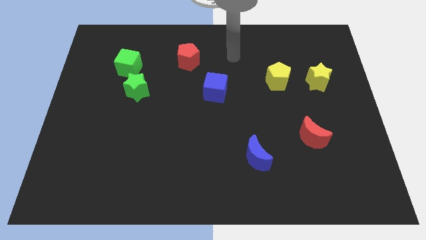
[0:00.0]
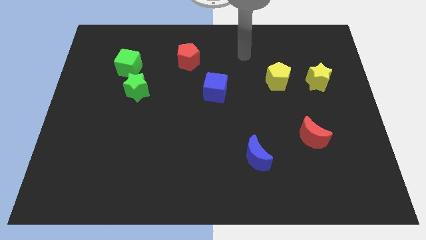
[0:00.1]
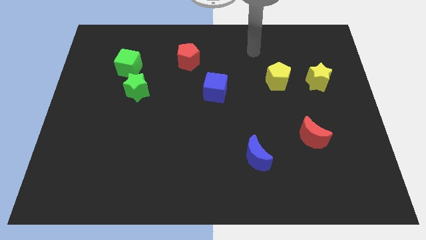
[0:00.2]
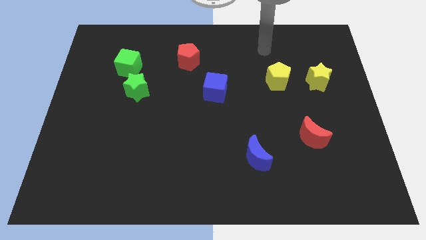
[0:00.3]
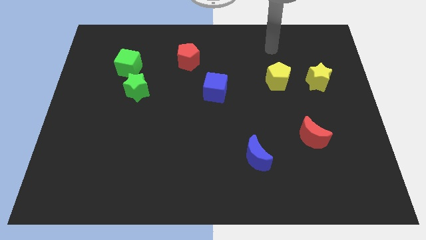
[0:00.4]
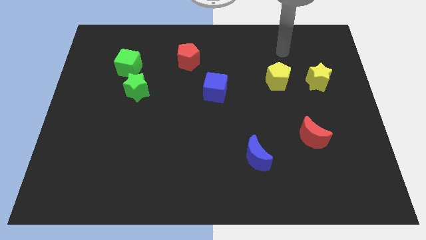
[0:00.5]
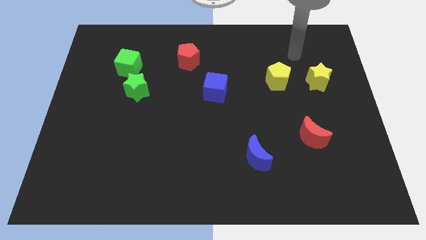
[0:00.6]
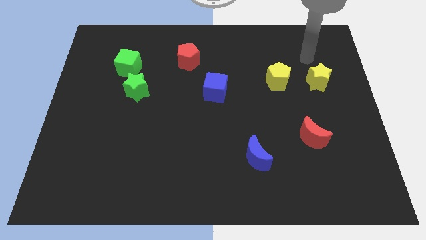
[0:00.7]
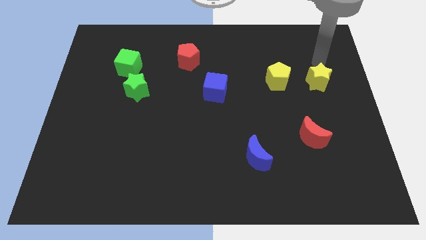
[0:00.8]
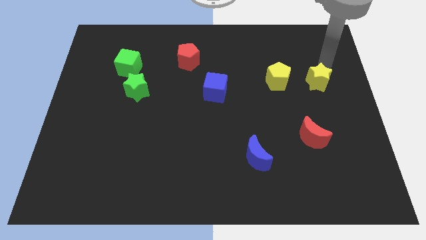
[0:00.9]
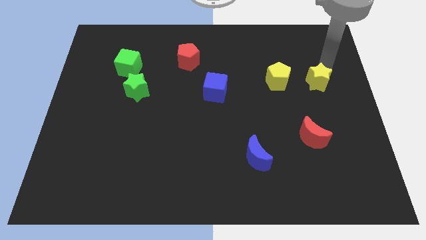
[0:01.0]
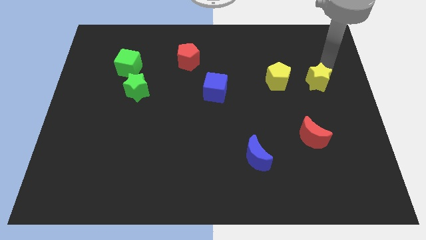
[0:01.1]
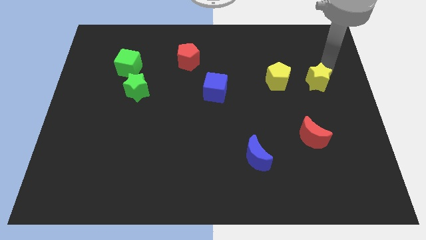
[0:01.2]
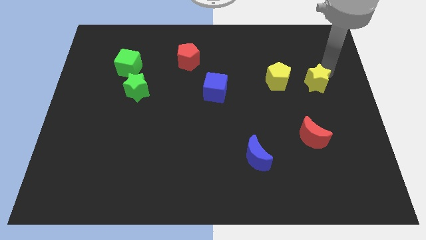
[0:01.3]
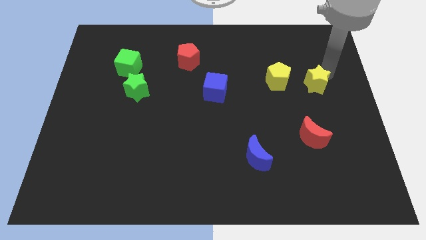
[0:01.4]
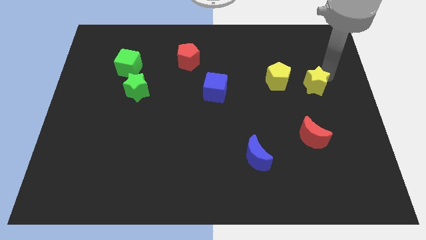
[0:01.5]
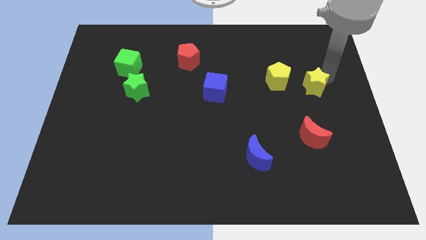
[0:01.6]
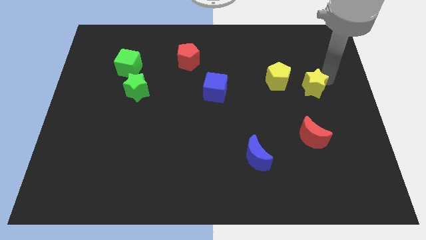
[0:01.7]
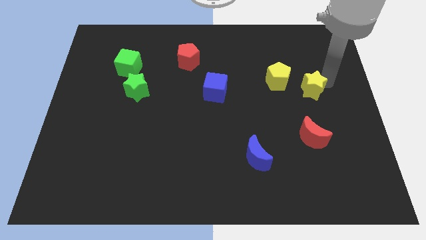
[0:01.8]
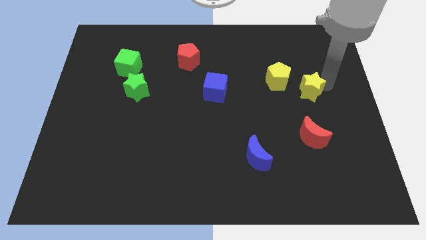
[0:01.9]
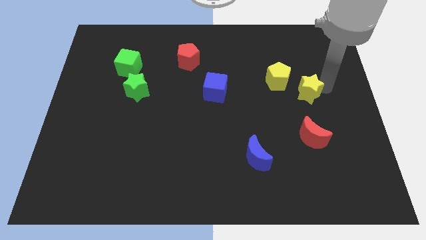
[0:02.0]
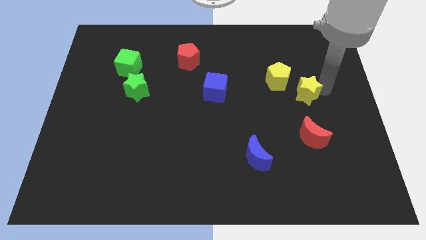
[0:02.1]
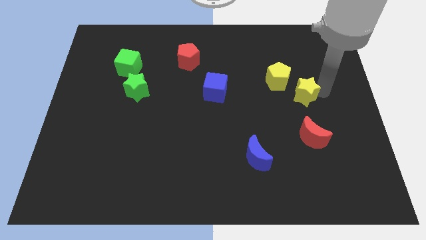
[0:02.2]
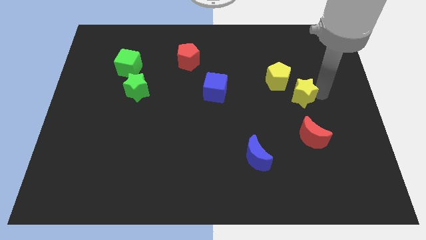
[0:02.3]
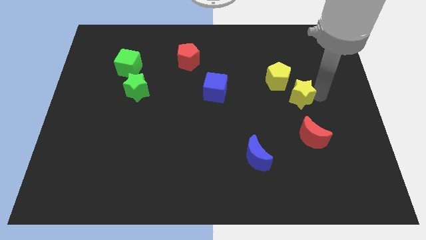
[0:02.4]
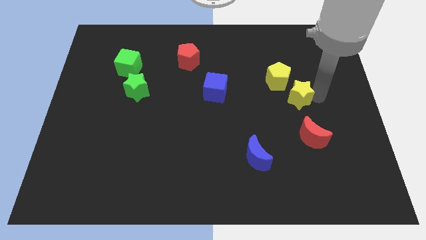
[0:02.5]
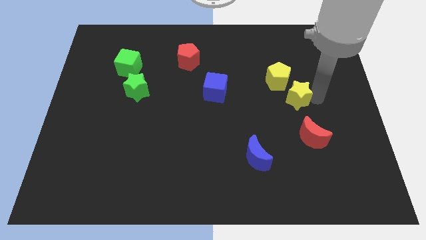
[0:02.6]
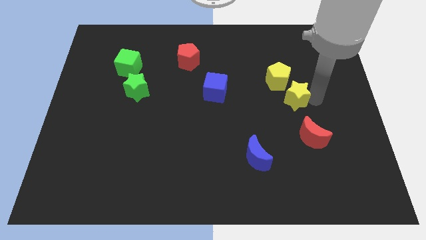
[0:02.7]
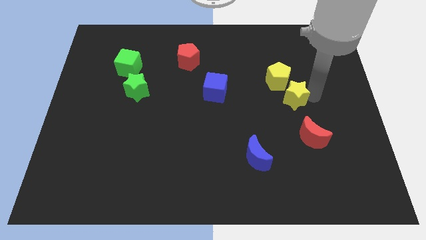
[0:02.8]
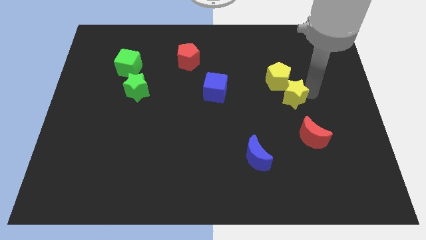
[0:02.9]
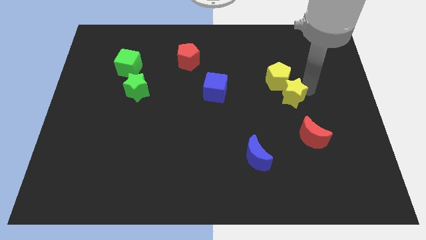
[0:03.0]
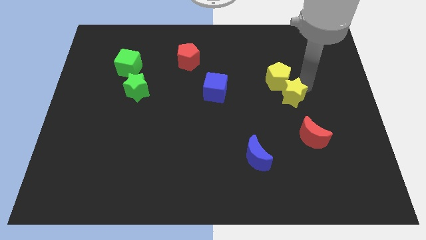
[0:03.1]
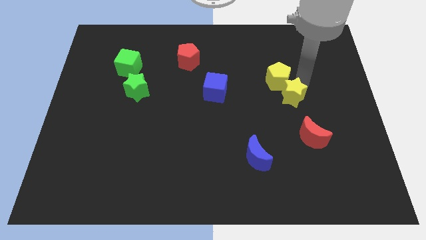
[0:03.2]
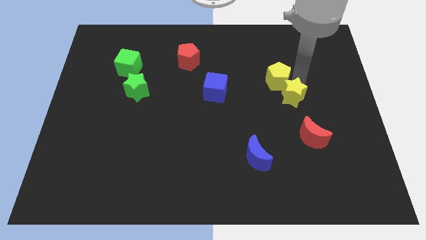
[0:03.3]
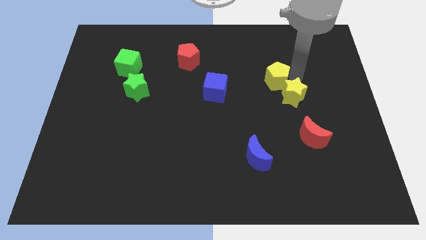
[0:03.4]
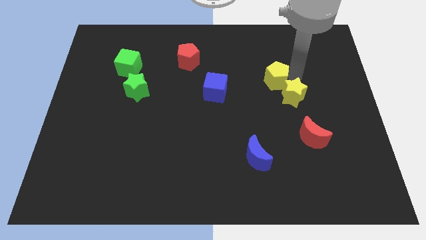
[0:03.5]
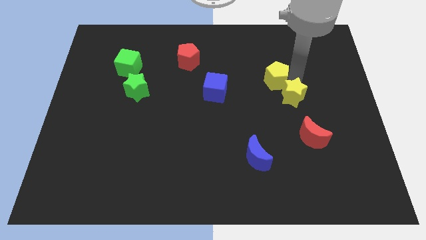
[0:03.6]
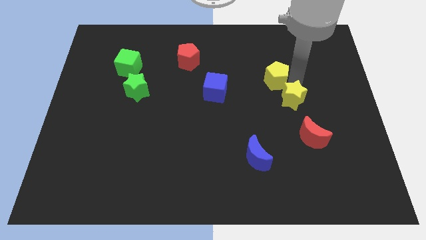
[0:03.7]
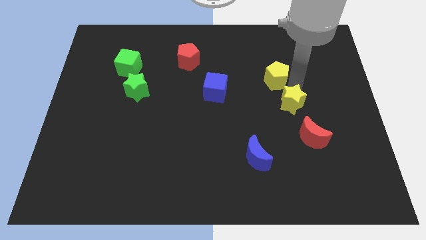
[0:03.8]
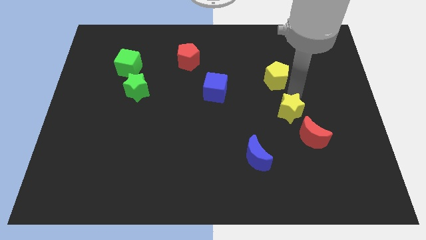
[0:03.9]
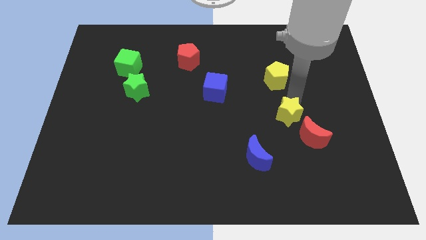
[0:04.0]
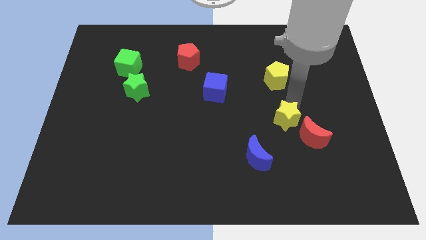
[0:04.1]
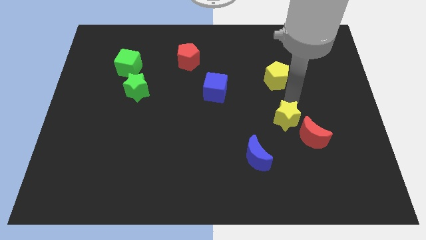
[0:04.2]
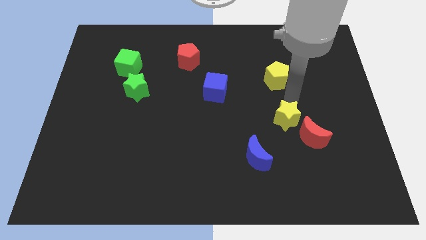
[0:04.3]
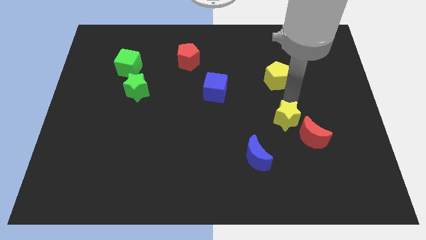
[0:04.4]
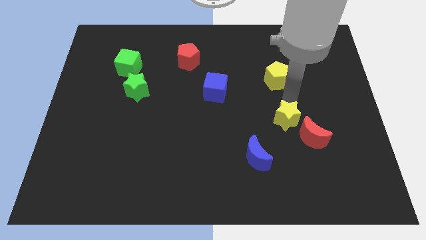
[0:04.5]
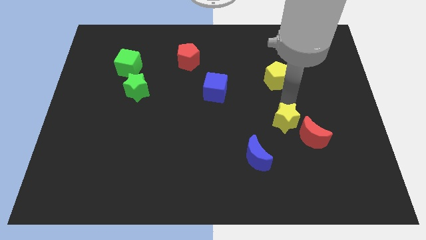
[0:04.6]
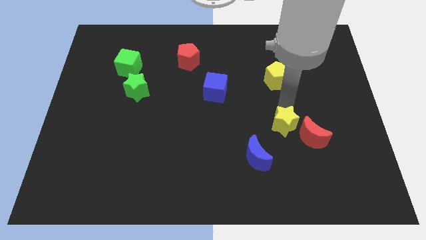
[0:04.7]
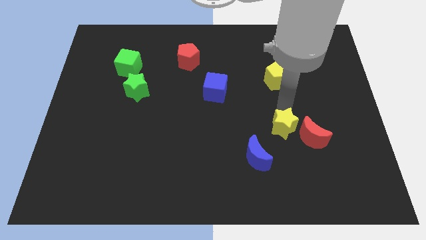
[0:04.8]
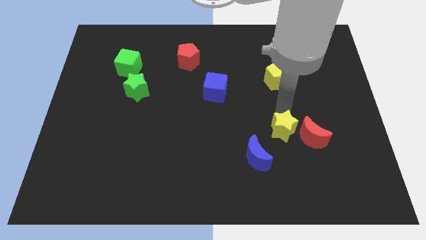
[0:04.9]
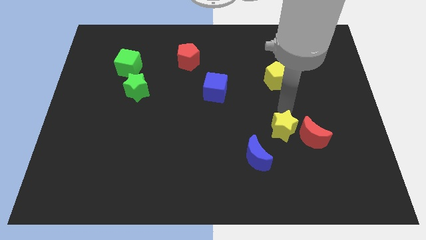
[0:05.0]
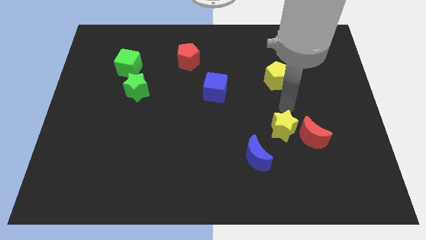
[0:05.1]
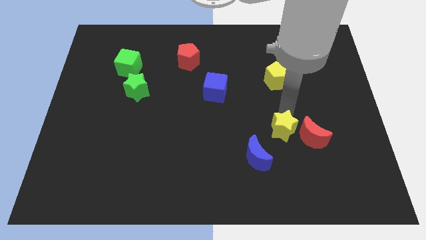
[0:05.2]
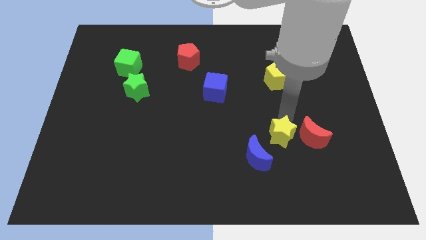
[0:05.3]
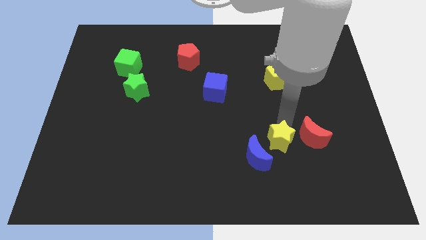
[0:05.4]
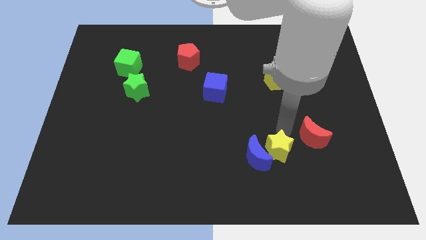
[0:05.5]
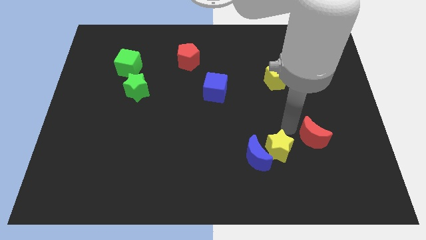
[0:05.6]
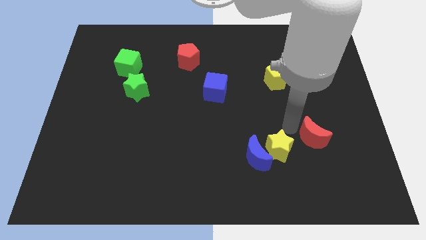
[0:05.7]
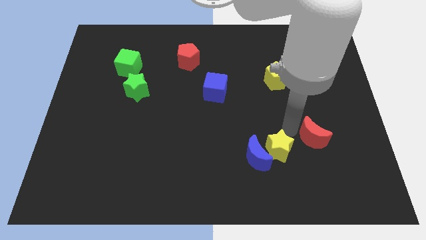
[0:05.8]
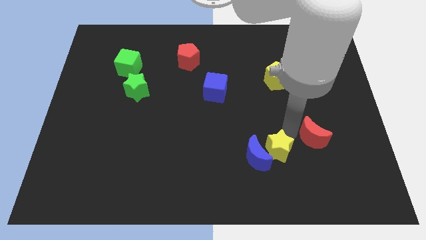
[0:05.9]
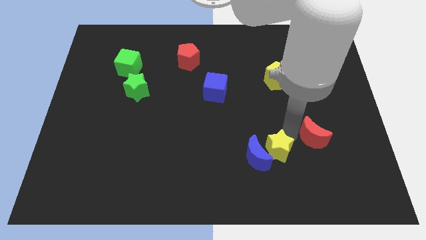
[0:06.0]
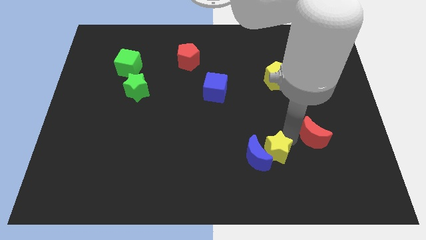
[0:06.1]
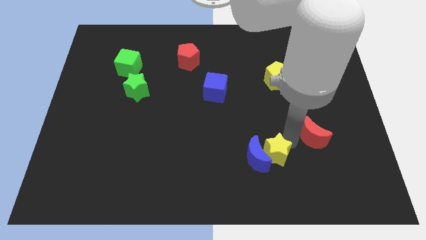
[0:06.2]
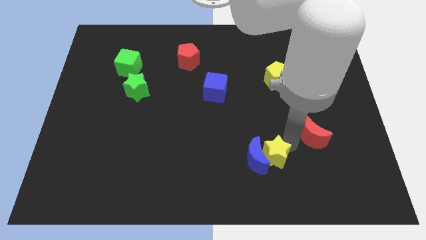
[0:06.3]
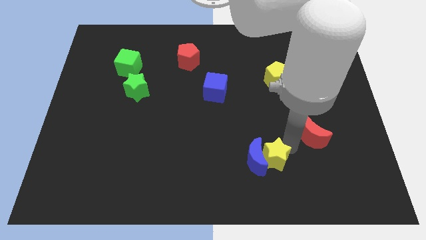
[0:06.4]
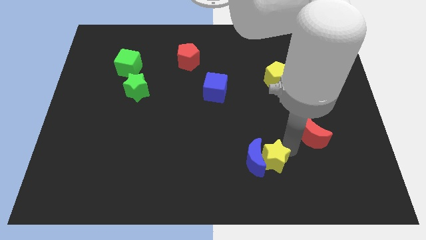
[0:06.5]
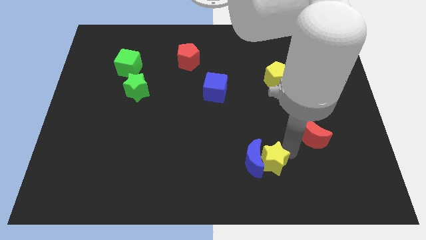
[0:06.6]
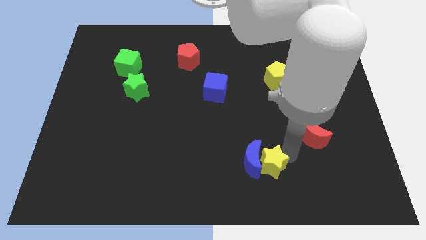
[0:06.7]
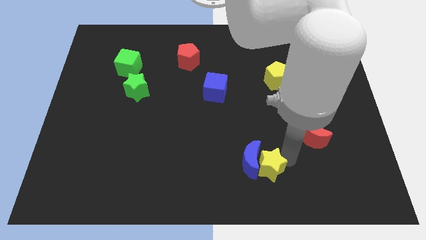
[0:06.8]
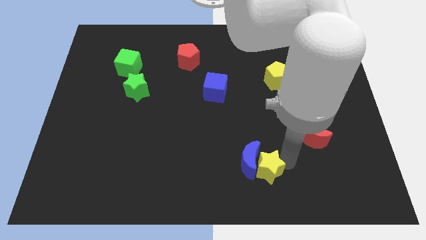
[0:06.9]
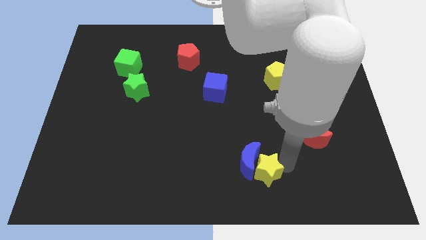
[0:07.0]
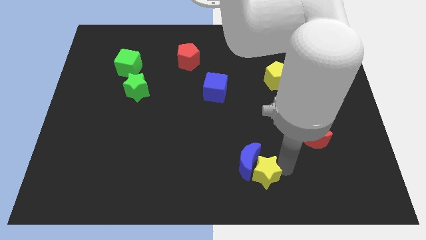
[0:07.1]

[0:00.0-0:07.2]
slide the yellow star to the bottom
